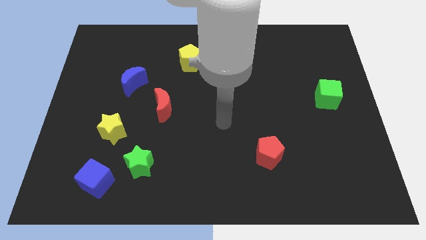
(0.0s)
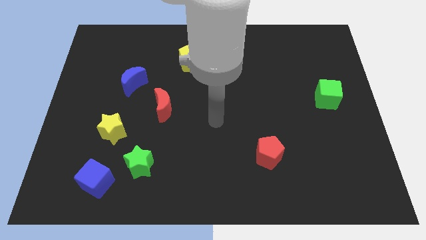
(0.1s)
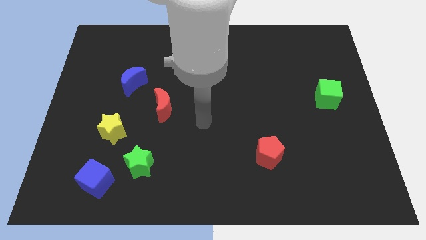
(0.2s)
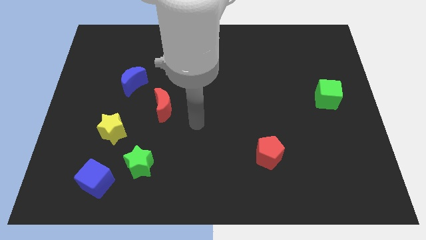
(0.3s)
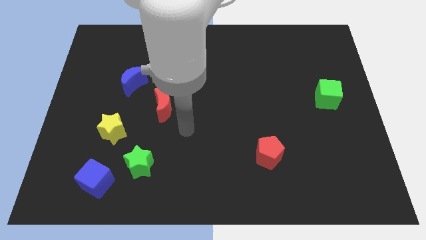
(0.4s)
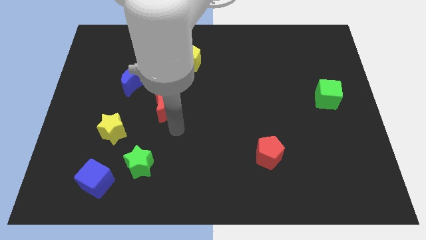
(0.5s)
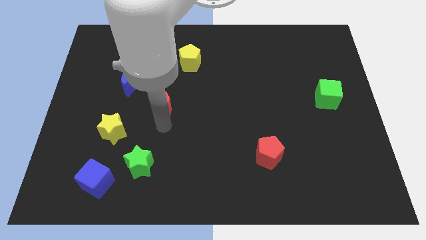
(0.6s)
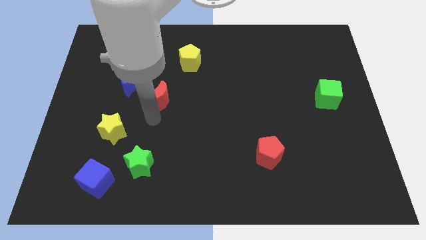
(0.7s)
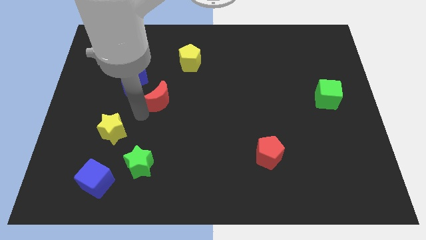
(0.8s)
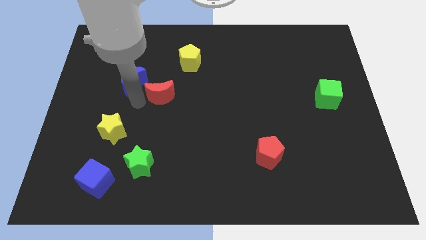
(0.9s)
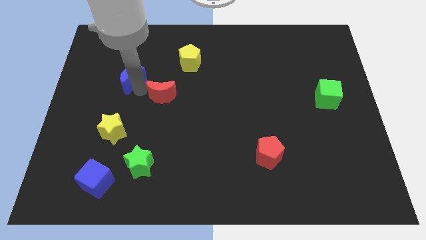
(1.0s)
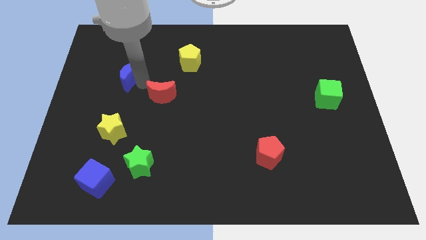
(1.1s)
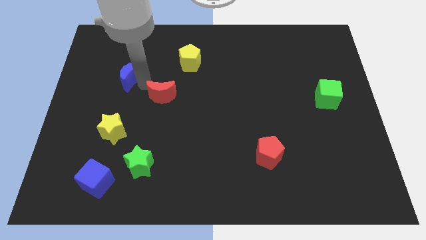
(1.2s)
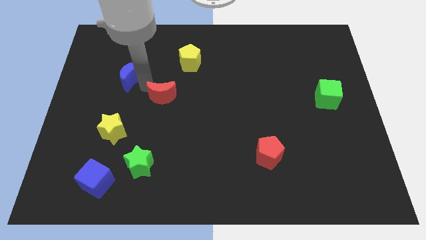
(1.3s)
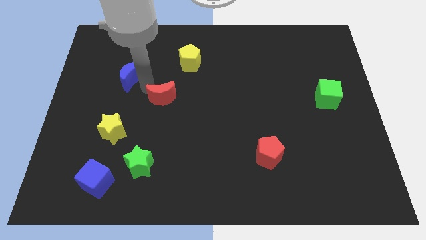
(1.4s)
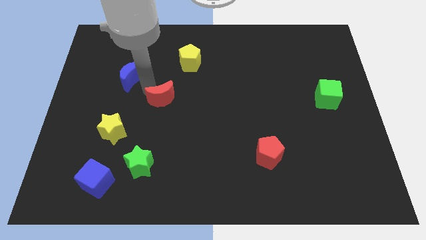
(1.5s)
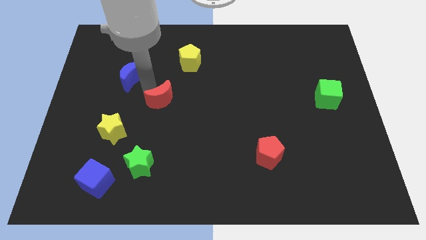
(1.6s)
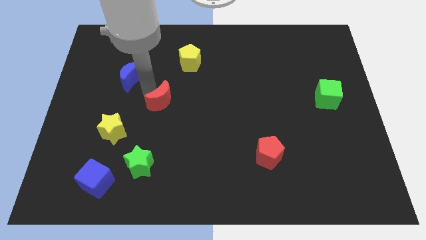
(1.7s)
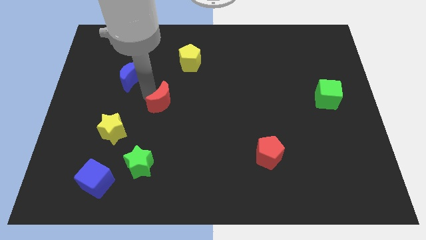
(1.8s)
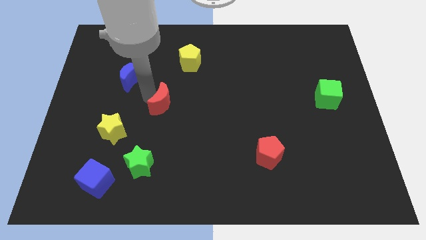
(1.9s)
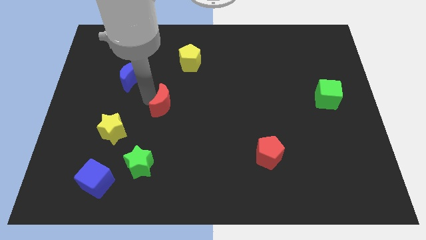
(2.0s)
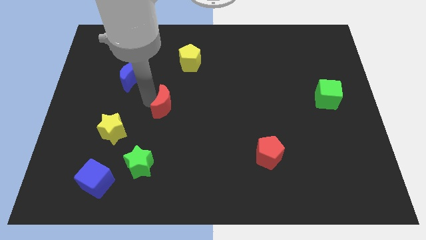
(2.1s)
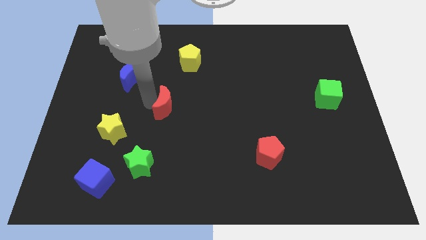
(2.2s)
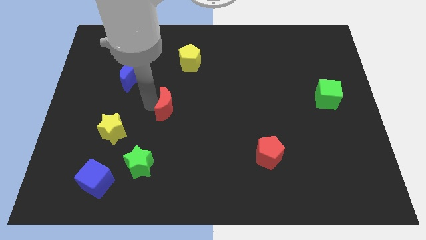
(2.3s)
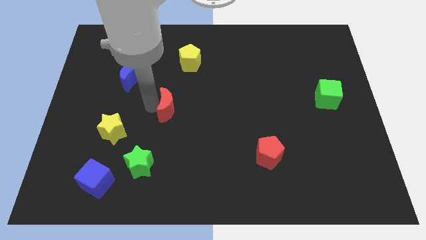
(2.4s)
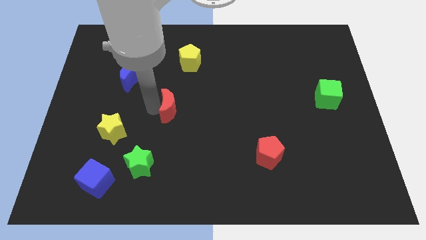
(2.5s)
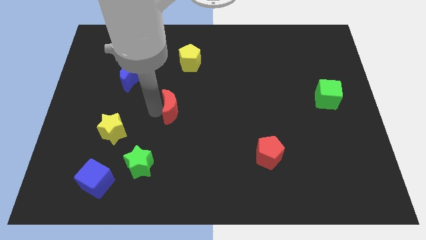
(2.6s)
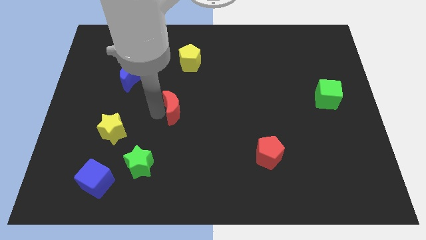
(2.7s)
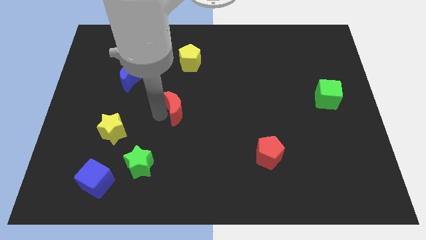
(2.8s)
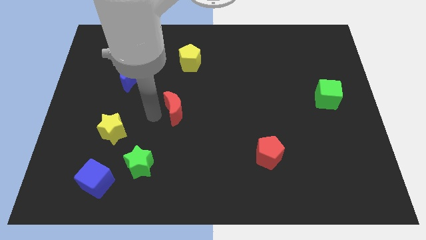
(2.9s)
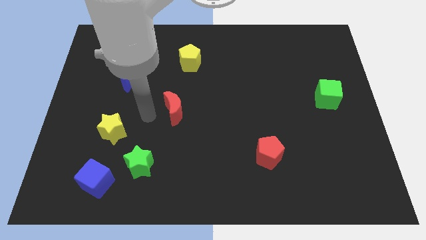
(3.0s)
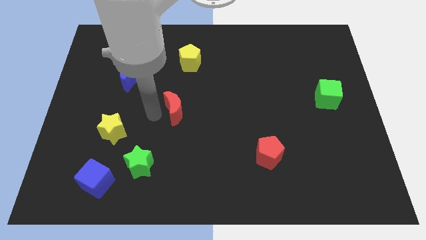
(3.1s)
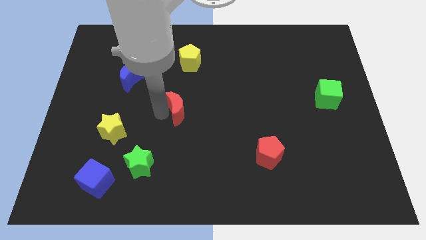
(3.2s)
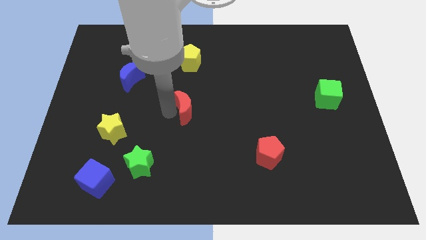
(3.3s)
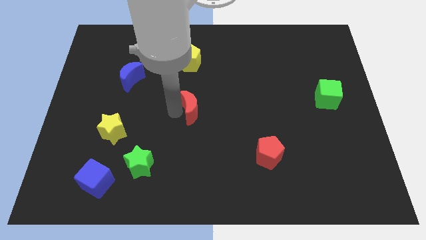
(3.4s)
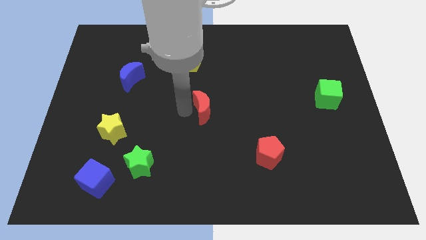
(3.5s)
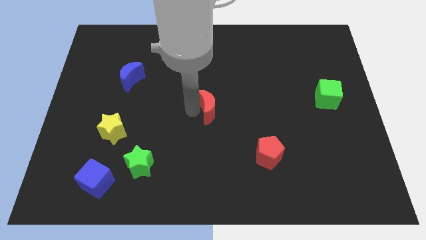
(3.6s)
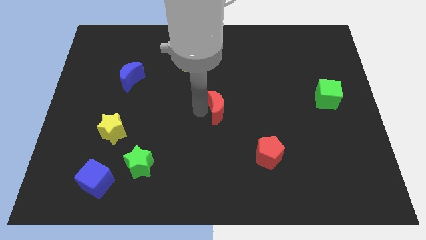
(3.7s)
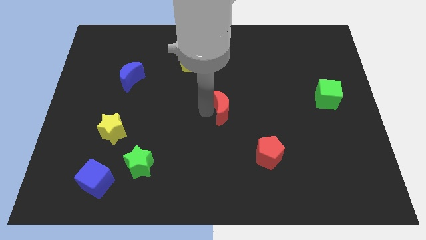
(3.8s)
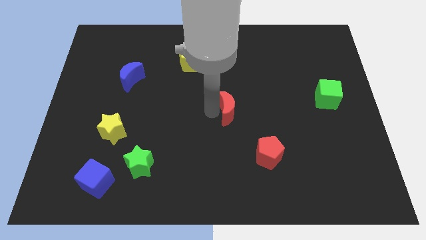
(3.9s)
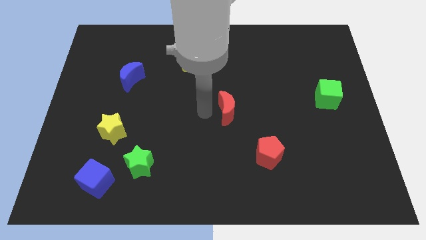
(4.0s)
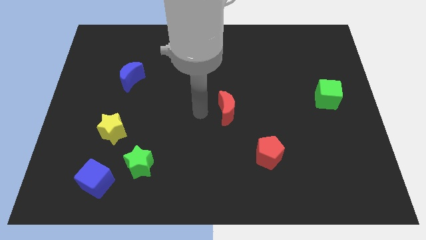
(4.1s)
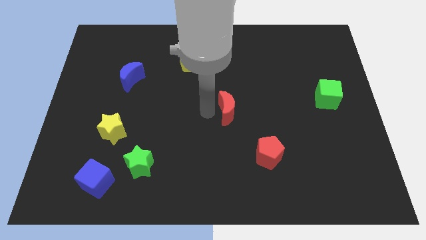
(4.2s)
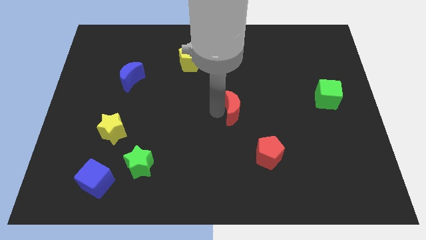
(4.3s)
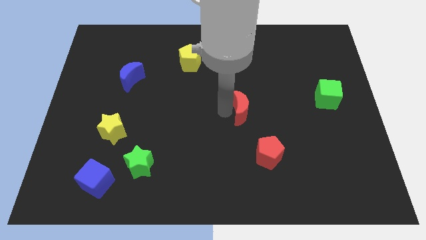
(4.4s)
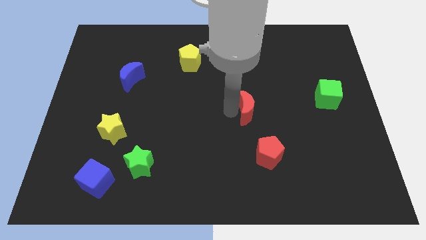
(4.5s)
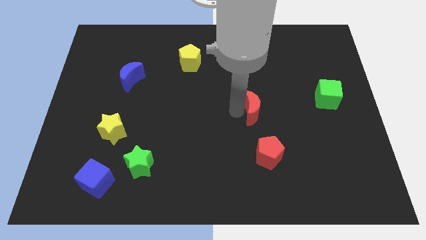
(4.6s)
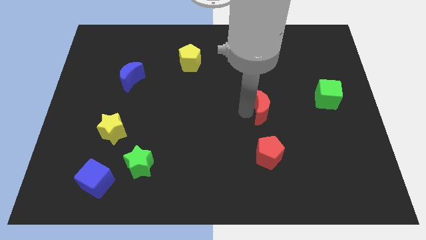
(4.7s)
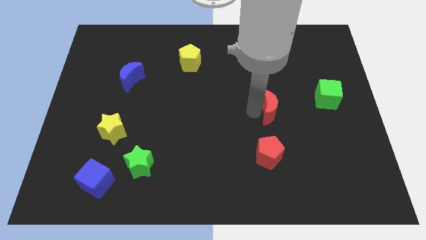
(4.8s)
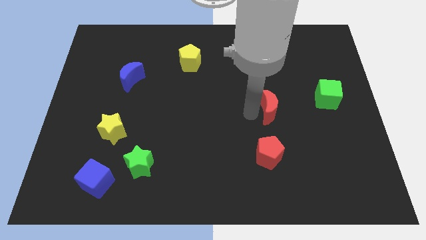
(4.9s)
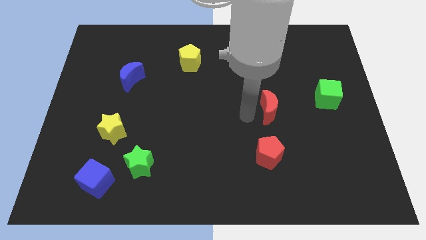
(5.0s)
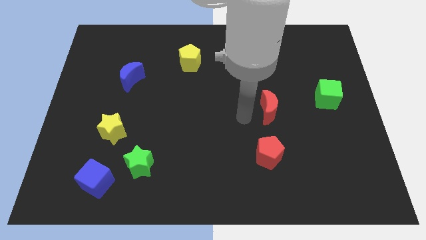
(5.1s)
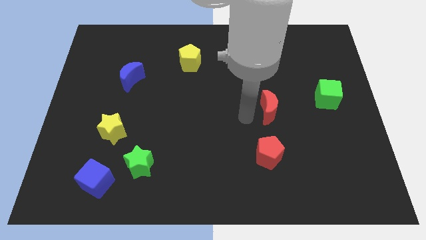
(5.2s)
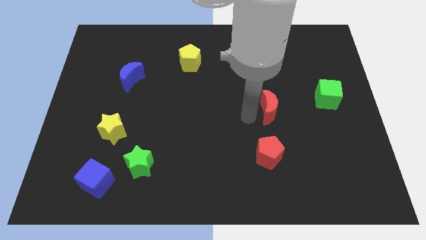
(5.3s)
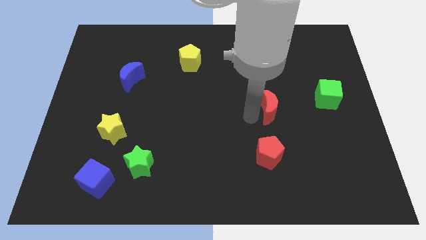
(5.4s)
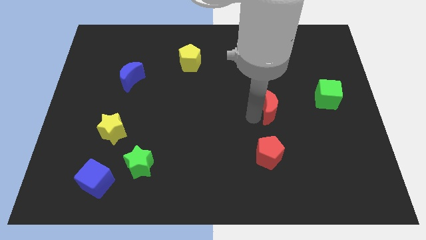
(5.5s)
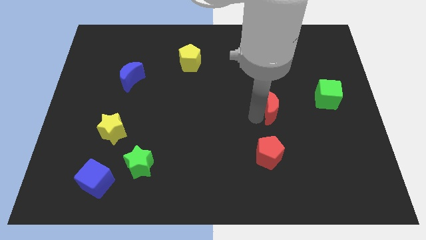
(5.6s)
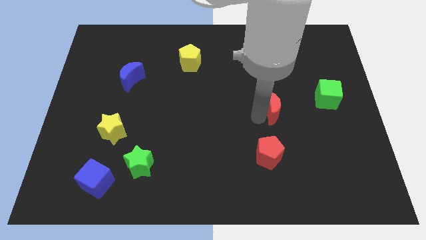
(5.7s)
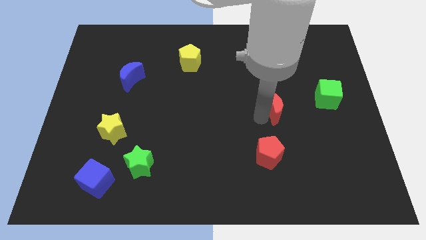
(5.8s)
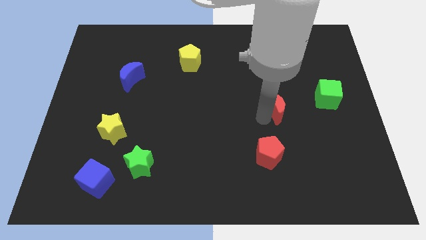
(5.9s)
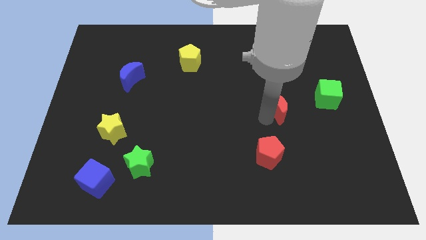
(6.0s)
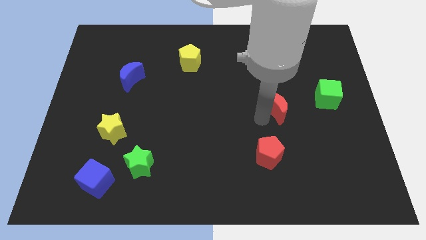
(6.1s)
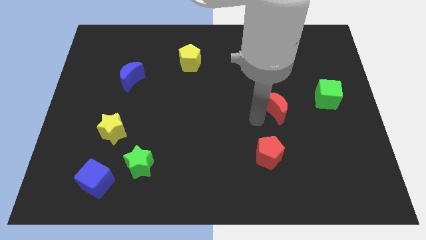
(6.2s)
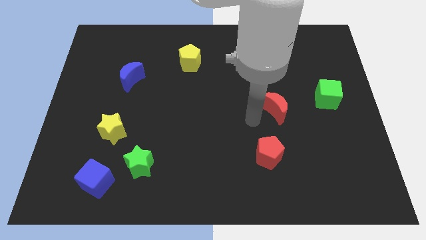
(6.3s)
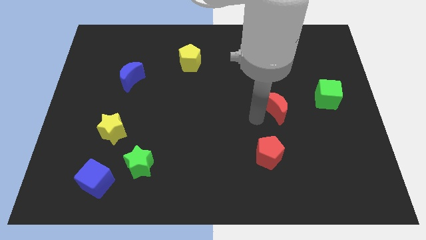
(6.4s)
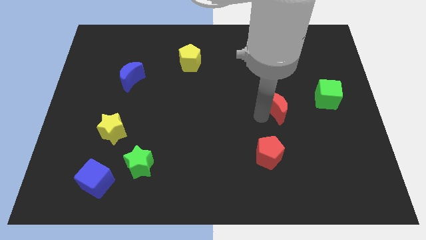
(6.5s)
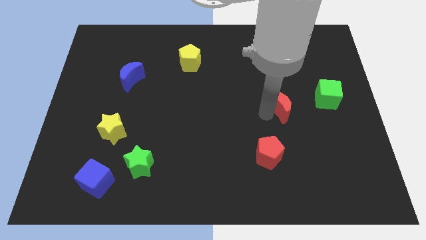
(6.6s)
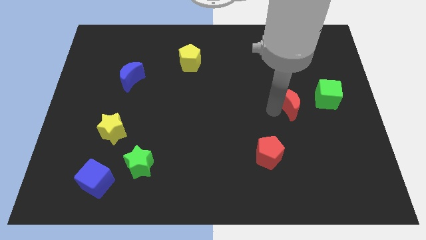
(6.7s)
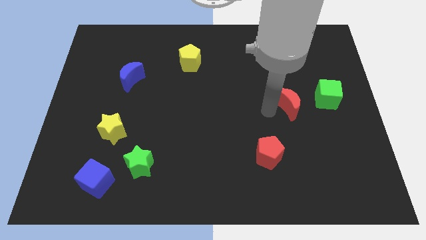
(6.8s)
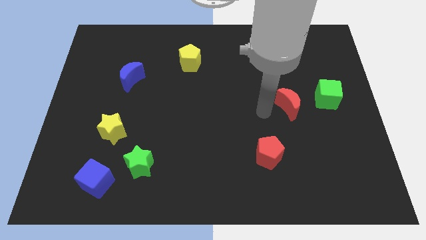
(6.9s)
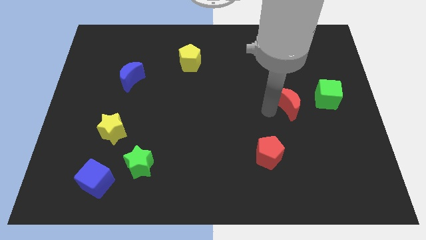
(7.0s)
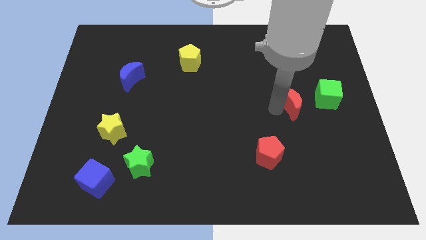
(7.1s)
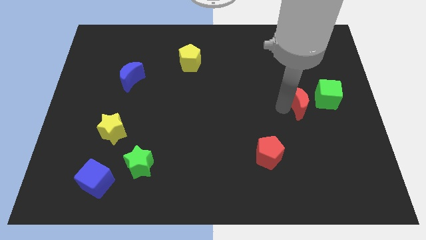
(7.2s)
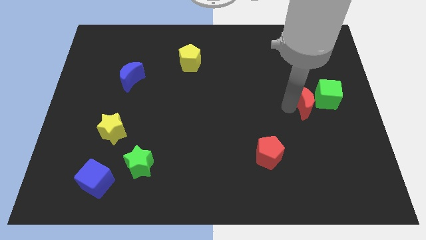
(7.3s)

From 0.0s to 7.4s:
push the red moon close to the green cube
